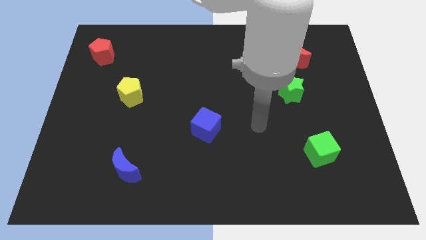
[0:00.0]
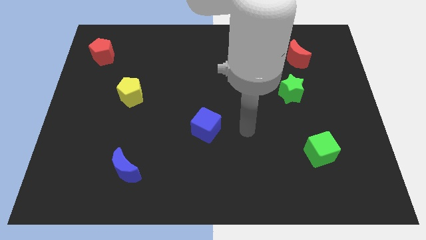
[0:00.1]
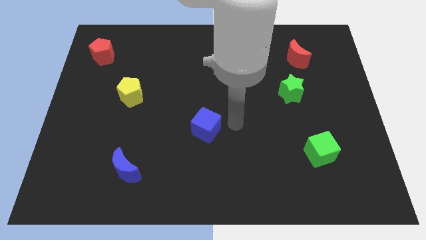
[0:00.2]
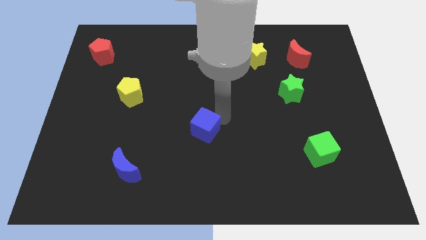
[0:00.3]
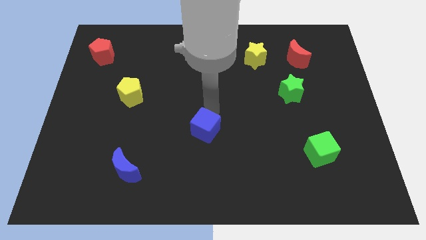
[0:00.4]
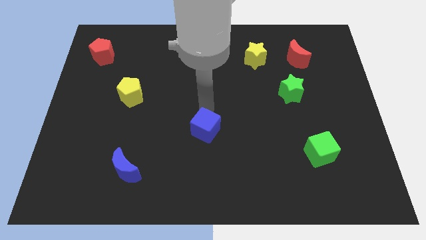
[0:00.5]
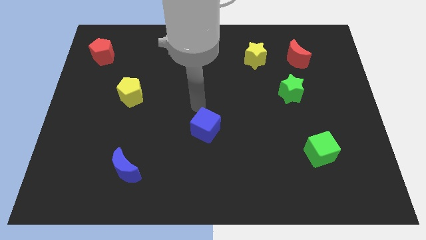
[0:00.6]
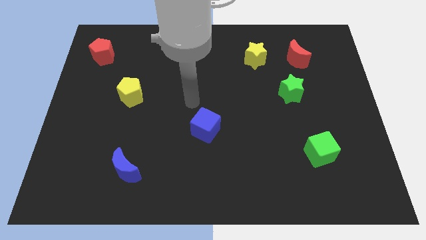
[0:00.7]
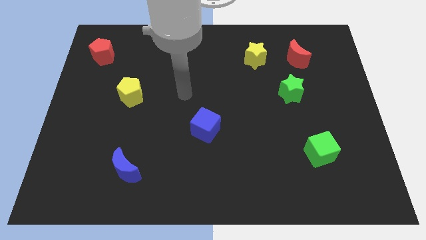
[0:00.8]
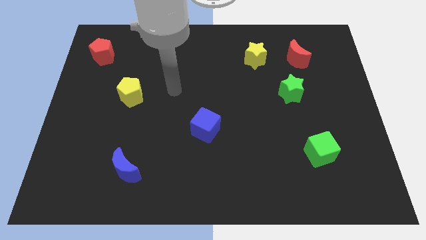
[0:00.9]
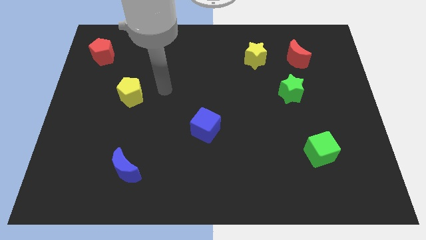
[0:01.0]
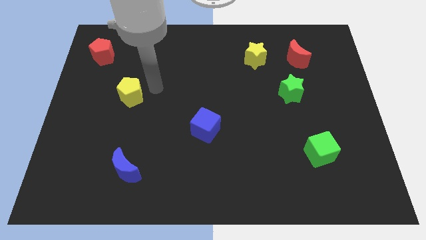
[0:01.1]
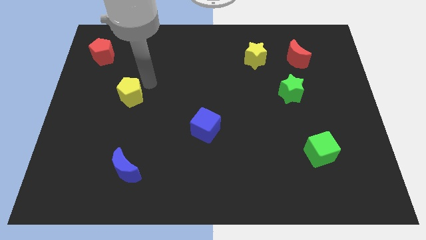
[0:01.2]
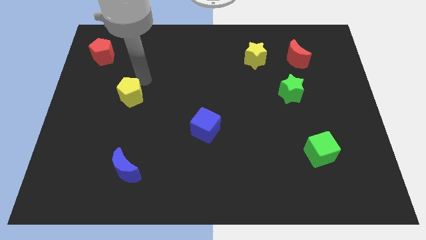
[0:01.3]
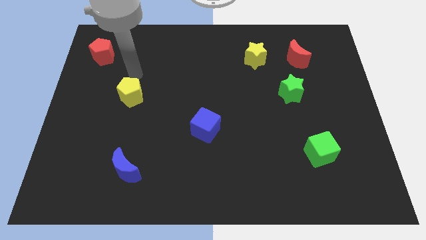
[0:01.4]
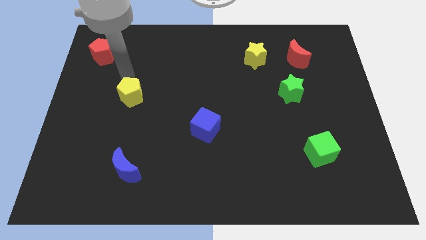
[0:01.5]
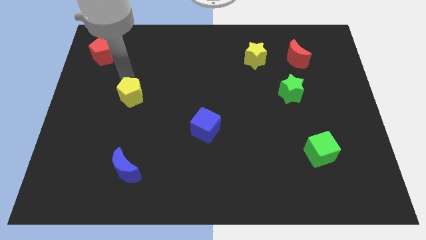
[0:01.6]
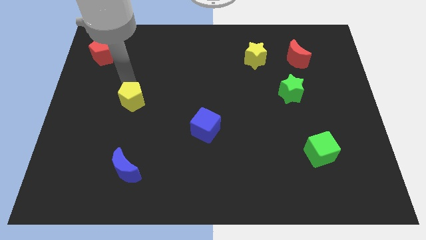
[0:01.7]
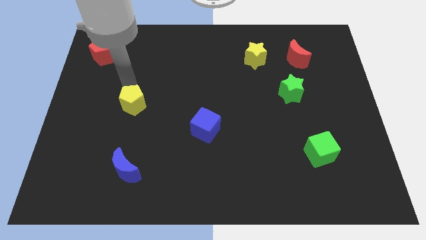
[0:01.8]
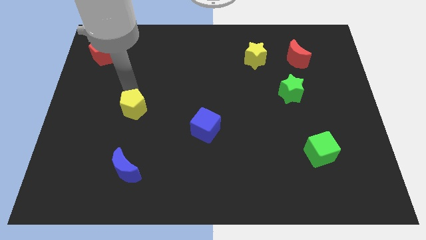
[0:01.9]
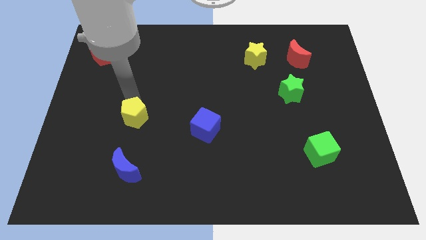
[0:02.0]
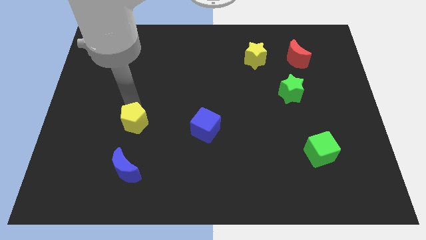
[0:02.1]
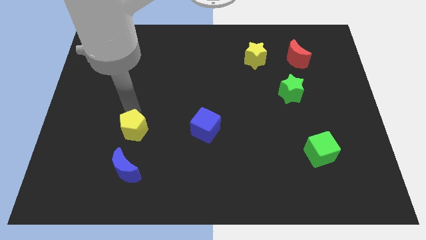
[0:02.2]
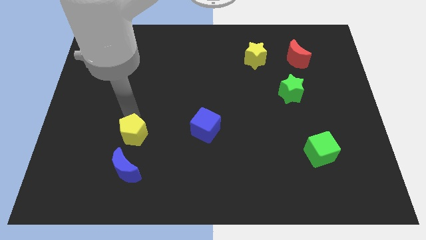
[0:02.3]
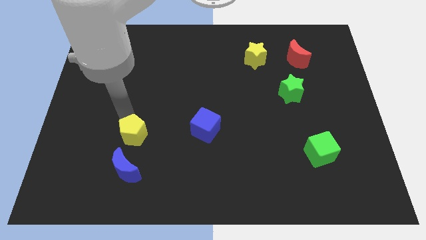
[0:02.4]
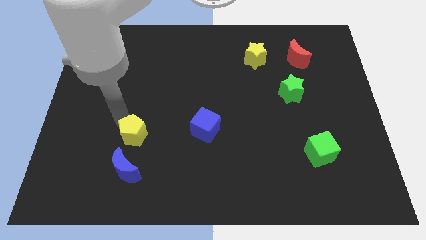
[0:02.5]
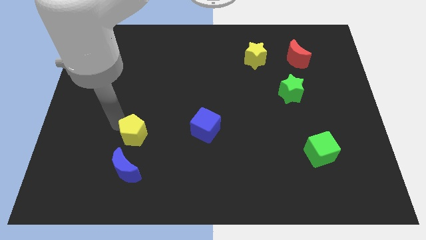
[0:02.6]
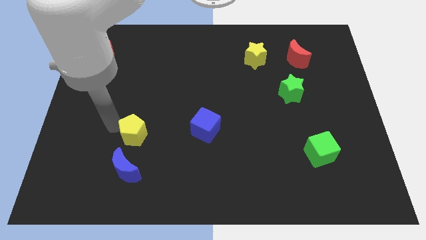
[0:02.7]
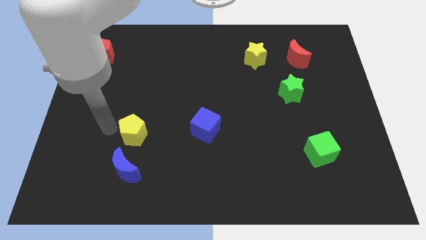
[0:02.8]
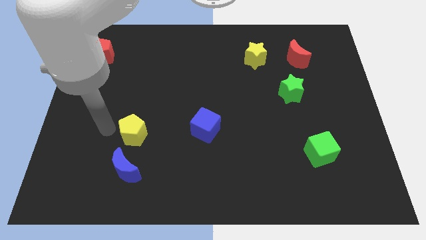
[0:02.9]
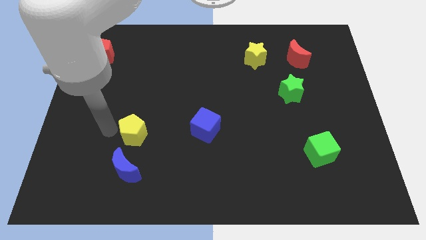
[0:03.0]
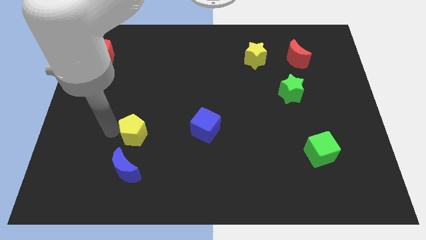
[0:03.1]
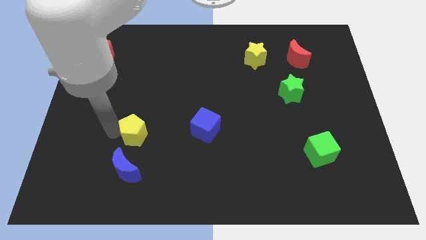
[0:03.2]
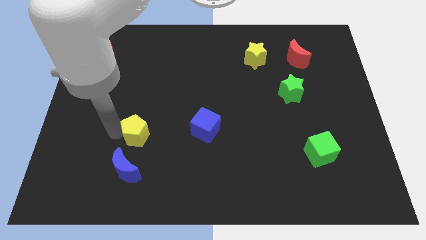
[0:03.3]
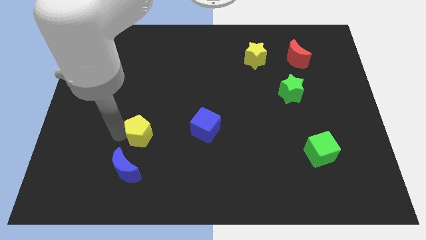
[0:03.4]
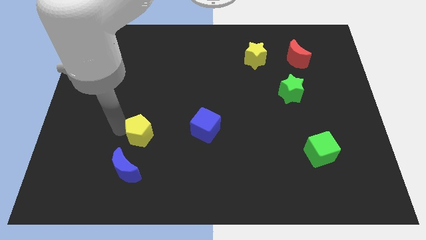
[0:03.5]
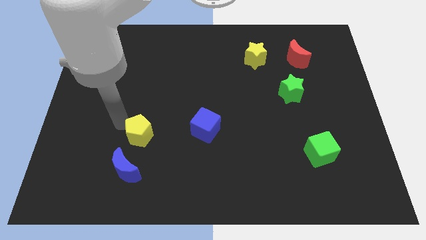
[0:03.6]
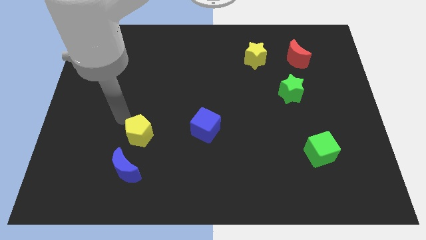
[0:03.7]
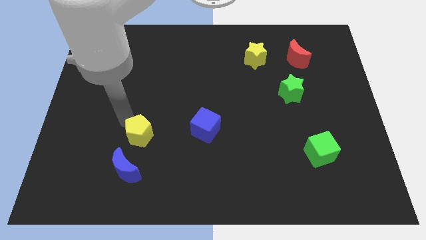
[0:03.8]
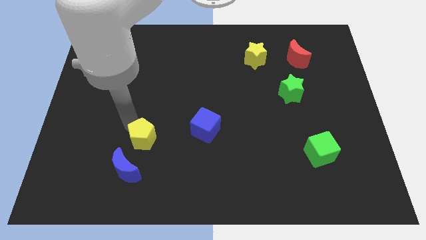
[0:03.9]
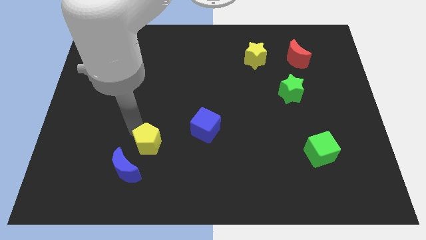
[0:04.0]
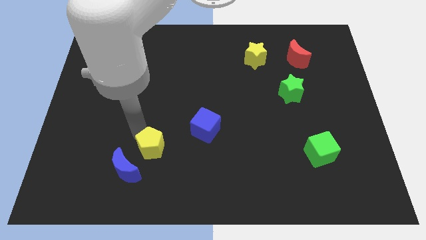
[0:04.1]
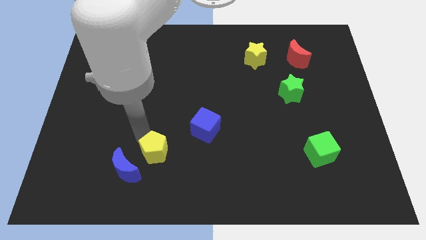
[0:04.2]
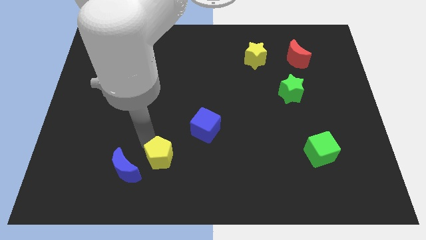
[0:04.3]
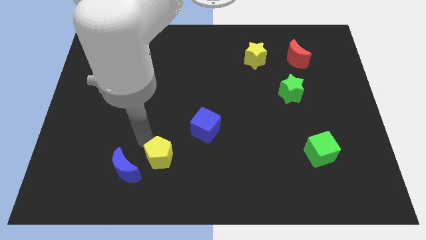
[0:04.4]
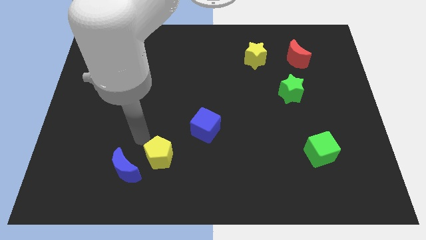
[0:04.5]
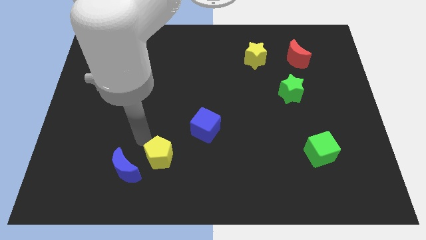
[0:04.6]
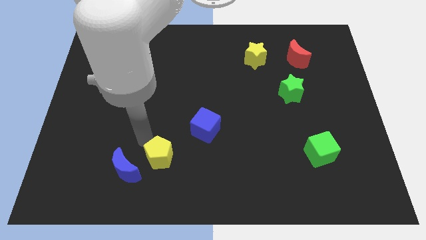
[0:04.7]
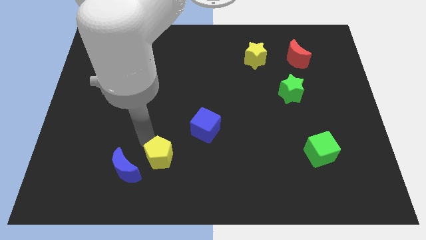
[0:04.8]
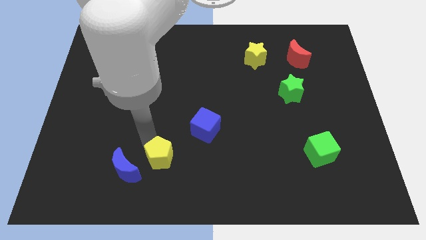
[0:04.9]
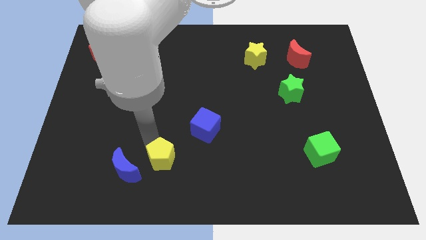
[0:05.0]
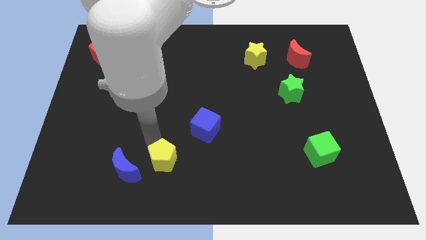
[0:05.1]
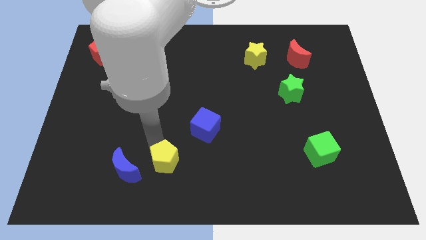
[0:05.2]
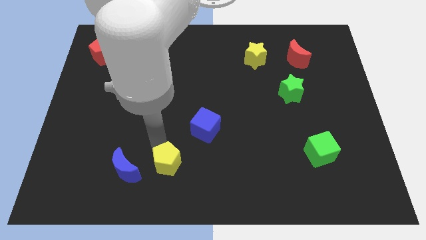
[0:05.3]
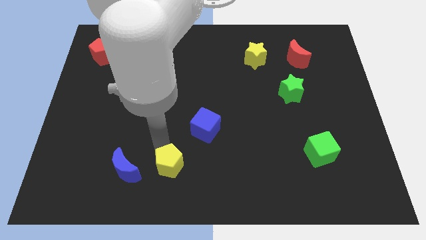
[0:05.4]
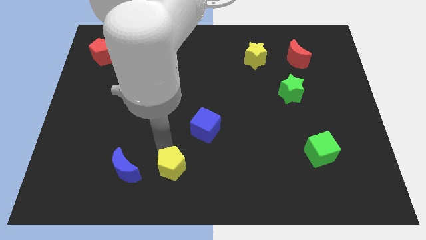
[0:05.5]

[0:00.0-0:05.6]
move the yellow pentagon to the bottom

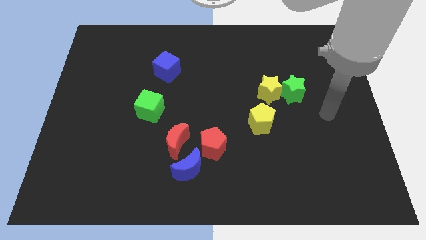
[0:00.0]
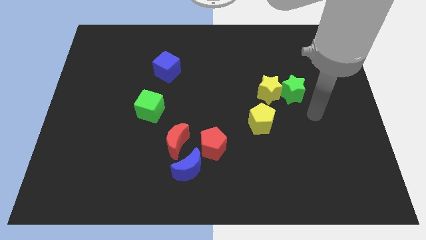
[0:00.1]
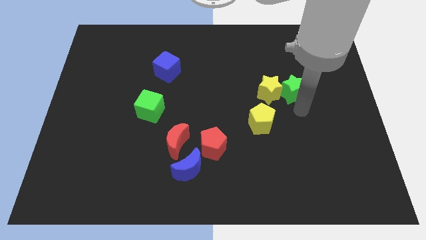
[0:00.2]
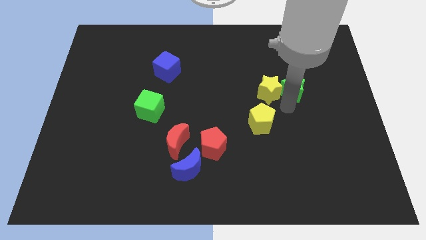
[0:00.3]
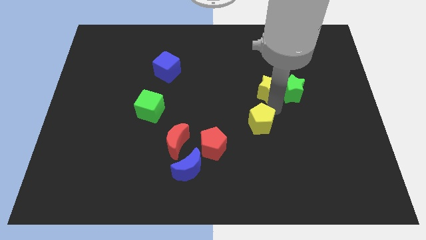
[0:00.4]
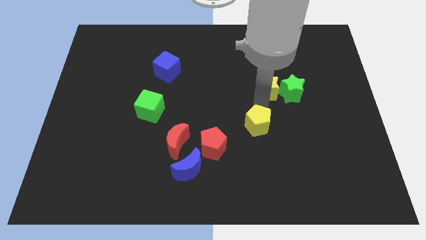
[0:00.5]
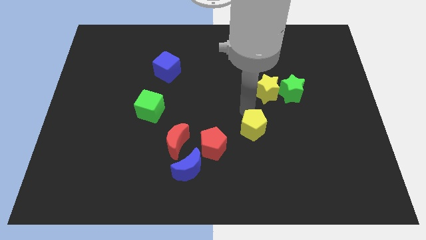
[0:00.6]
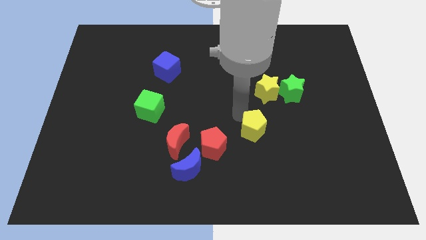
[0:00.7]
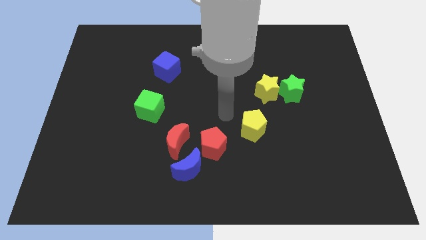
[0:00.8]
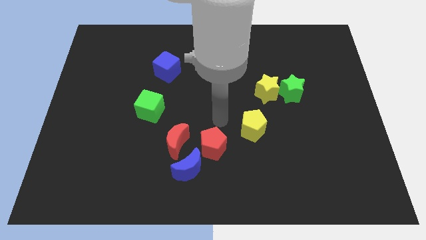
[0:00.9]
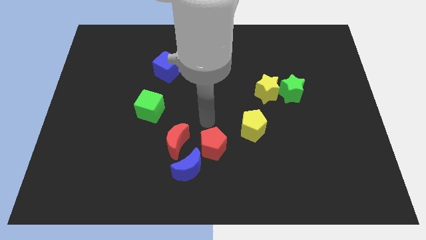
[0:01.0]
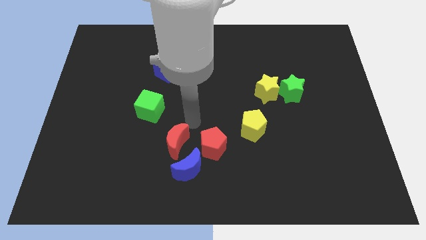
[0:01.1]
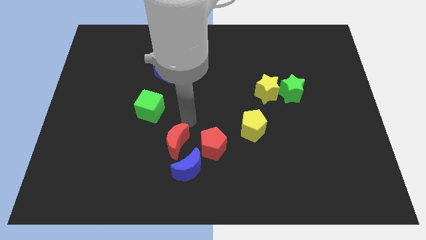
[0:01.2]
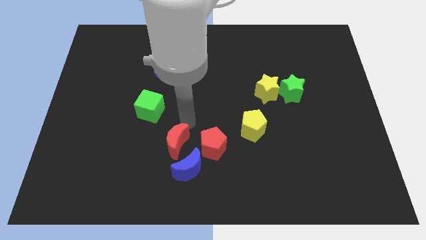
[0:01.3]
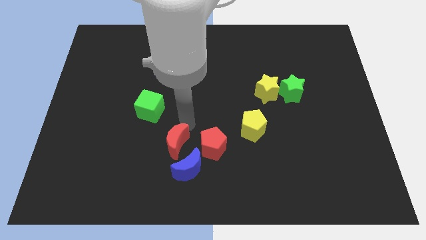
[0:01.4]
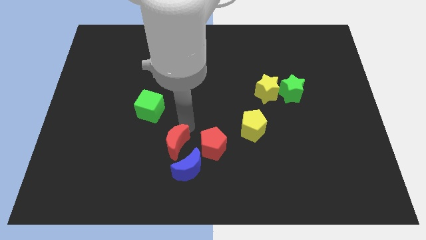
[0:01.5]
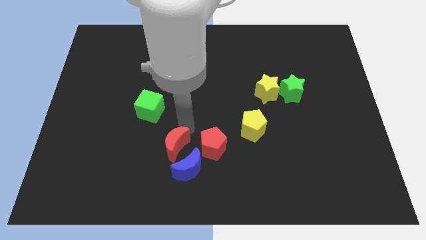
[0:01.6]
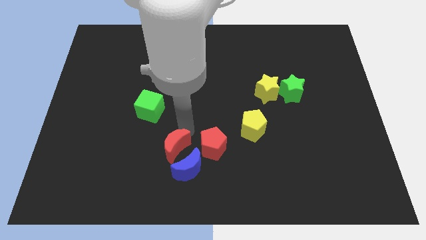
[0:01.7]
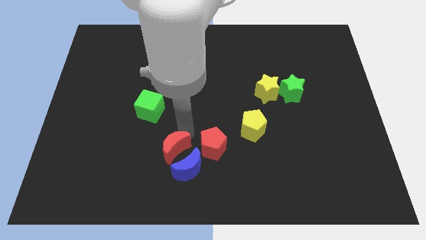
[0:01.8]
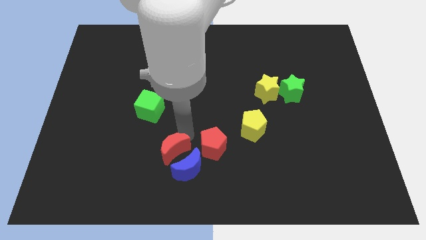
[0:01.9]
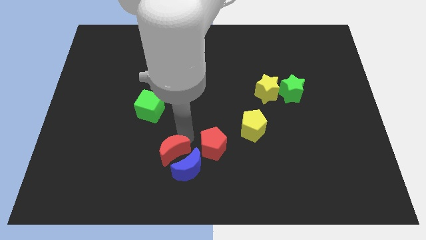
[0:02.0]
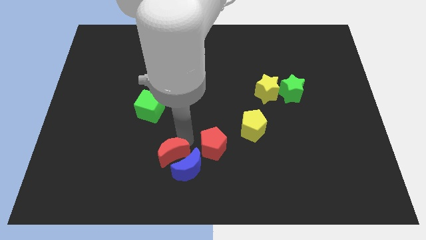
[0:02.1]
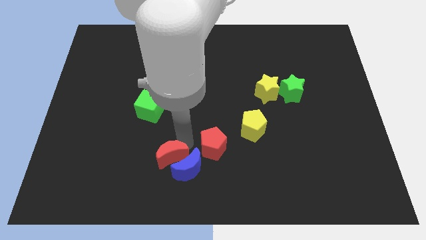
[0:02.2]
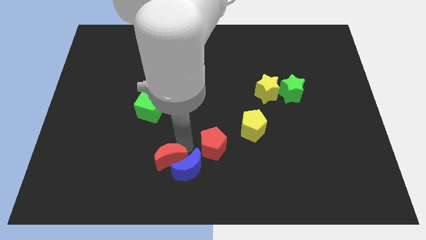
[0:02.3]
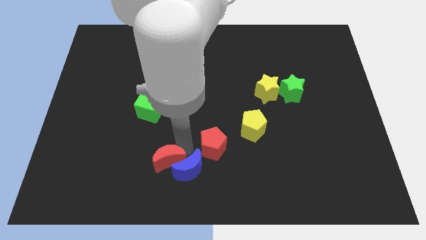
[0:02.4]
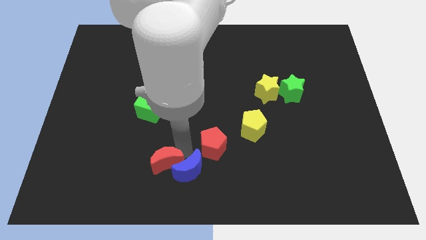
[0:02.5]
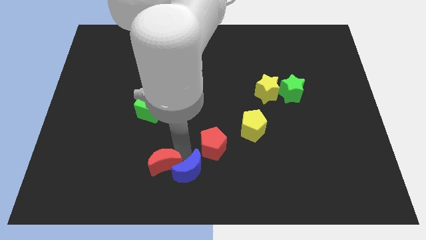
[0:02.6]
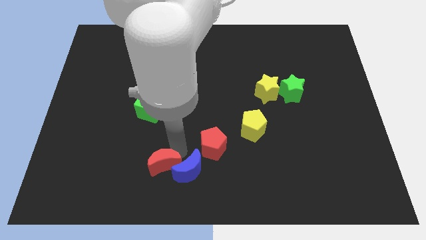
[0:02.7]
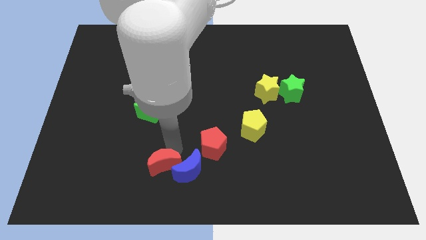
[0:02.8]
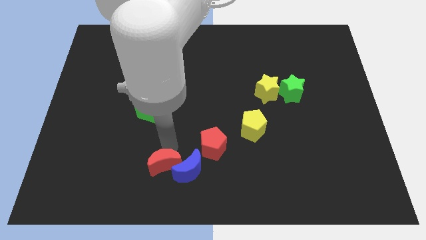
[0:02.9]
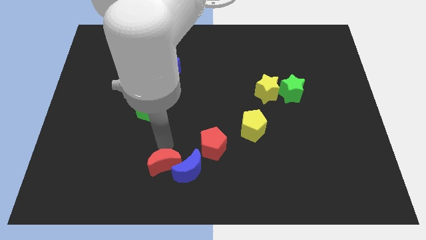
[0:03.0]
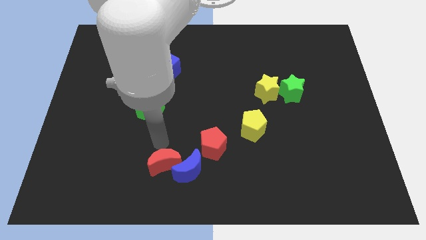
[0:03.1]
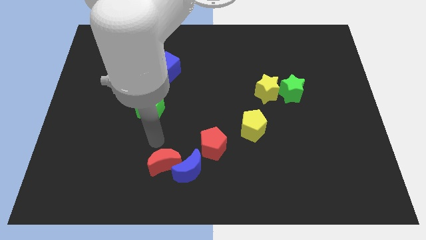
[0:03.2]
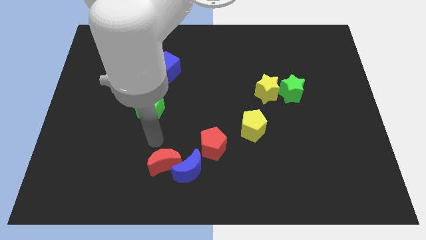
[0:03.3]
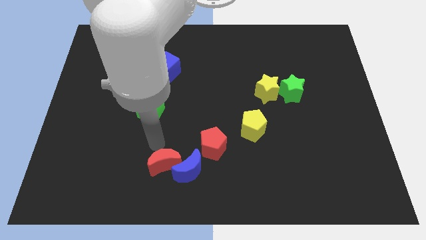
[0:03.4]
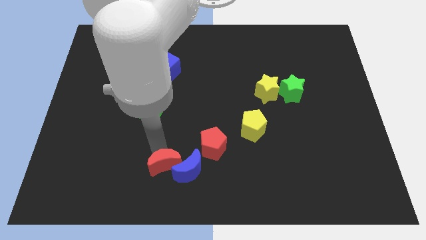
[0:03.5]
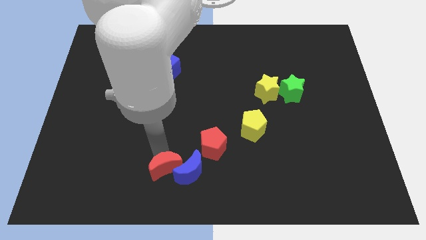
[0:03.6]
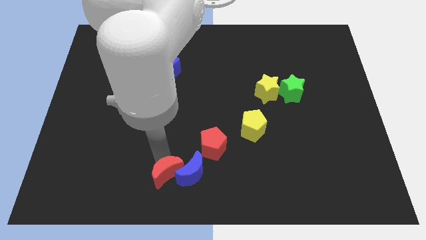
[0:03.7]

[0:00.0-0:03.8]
move the red moon to the bottom side
